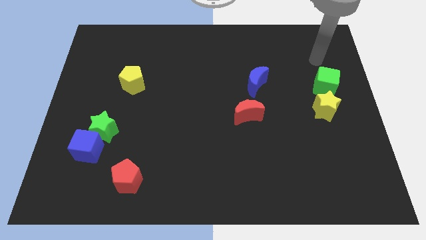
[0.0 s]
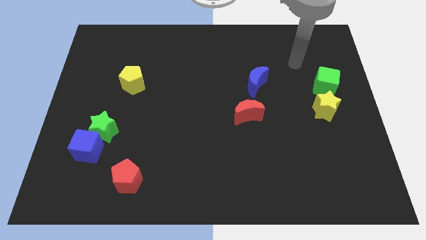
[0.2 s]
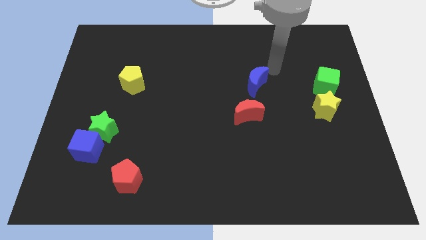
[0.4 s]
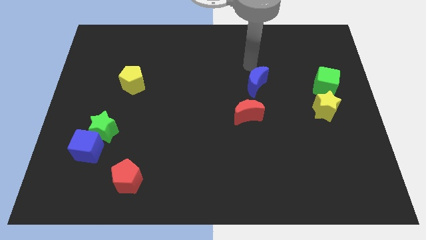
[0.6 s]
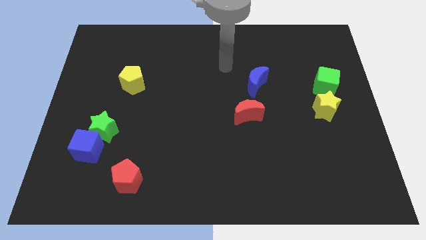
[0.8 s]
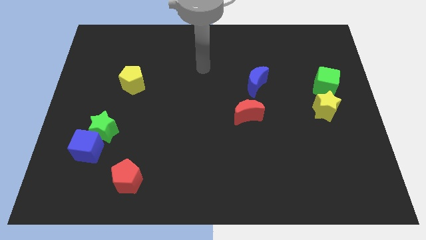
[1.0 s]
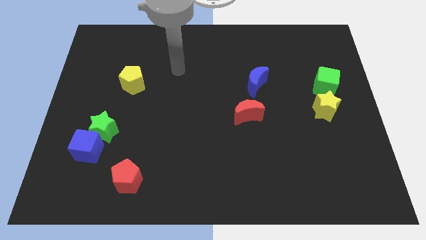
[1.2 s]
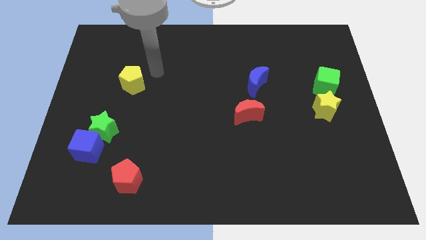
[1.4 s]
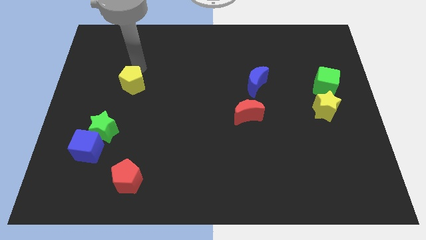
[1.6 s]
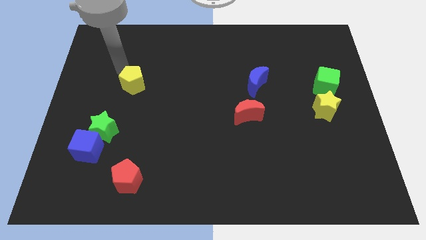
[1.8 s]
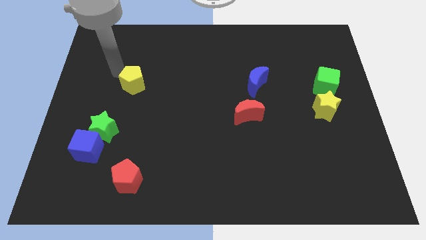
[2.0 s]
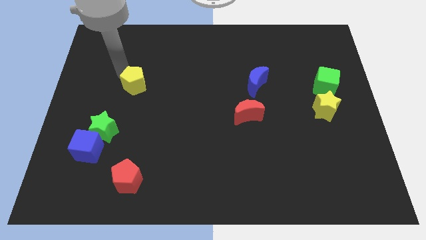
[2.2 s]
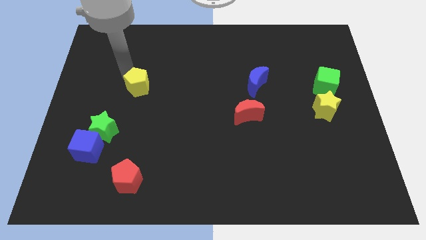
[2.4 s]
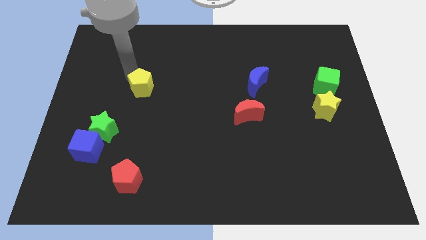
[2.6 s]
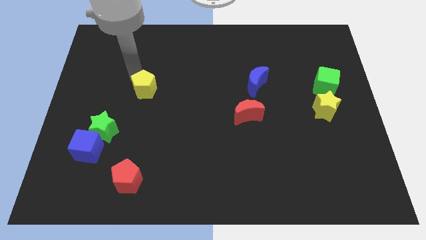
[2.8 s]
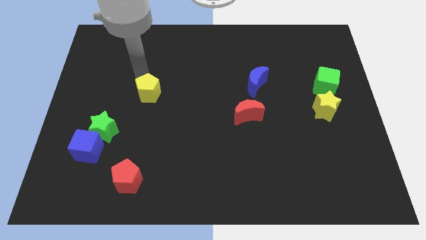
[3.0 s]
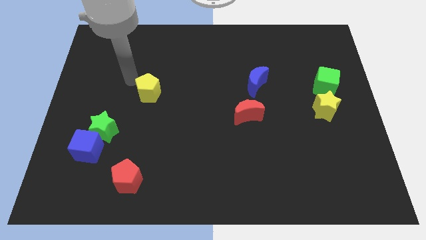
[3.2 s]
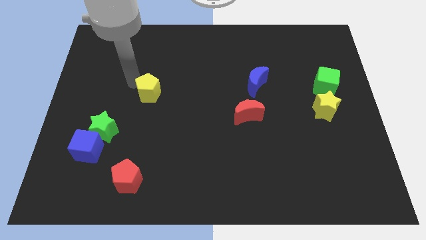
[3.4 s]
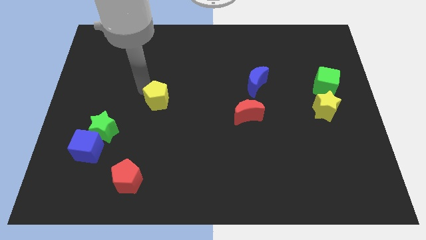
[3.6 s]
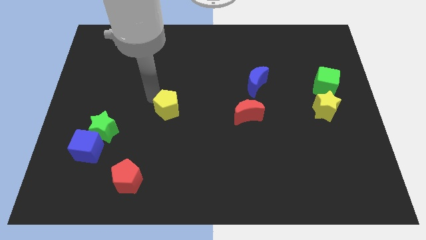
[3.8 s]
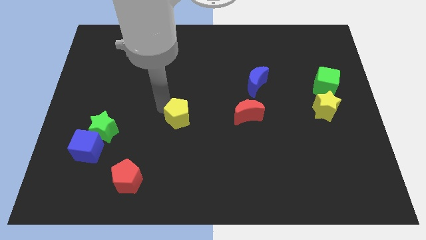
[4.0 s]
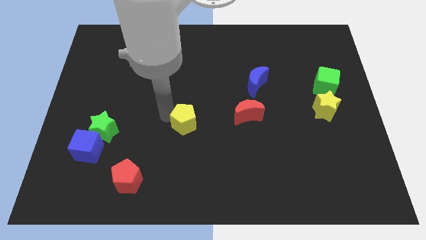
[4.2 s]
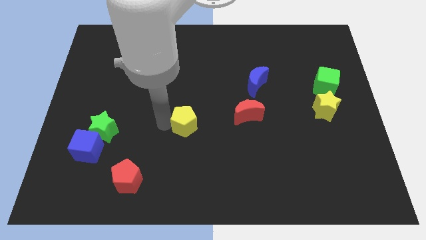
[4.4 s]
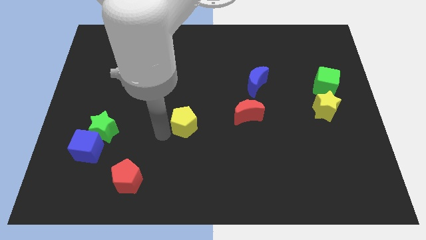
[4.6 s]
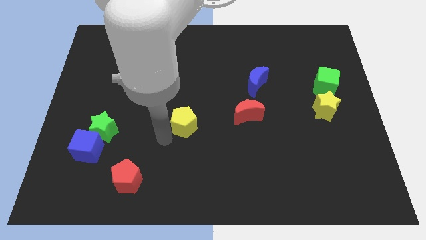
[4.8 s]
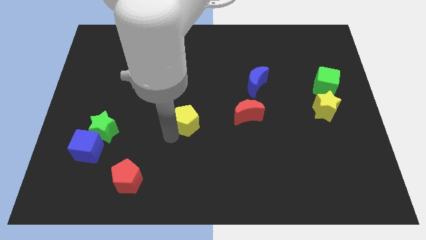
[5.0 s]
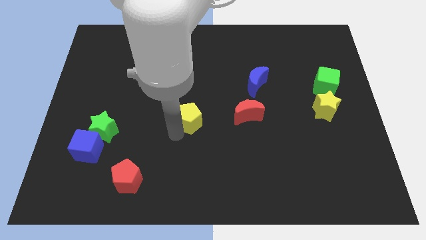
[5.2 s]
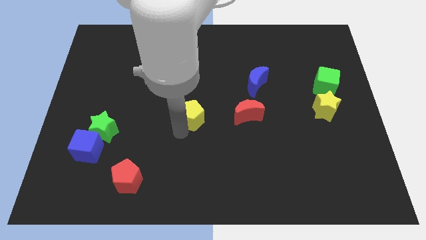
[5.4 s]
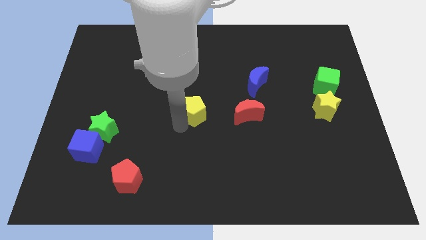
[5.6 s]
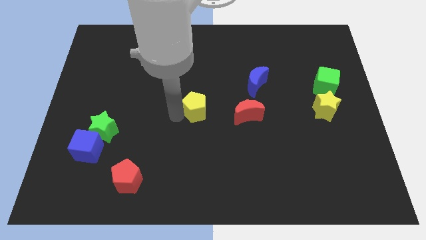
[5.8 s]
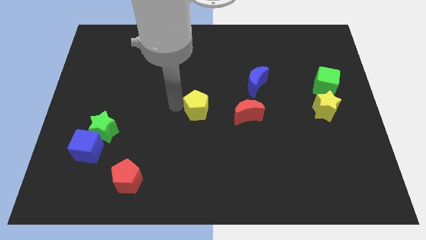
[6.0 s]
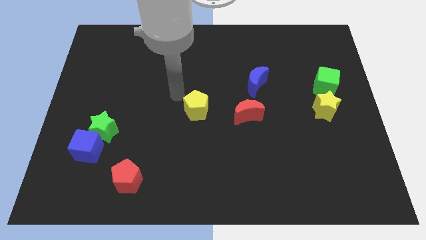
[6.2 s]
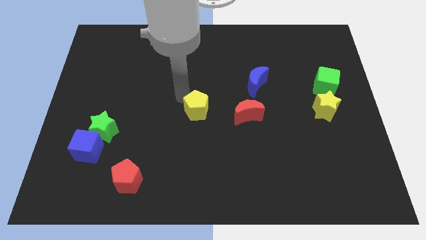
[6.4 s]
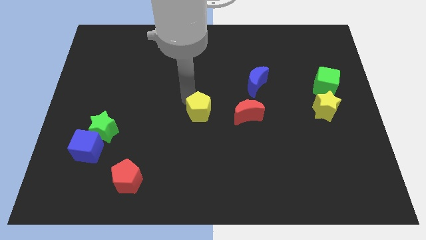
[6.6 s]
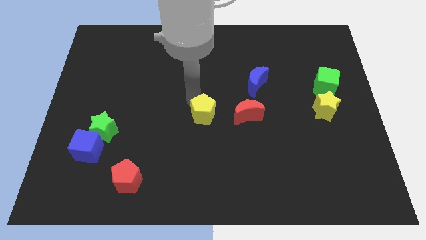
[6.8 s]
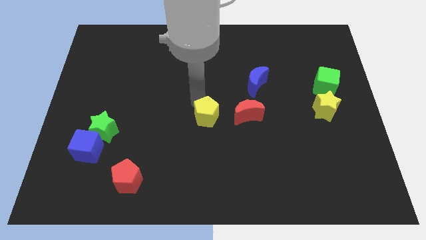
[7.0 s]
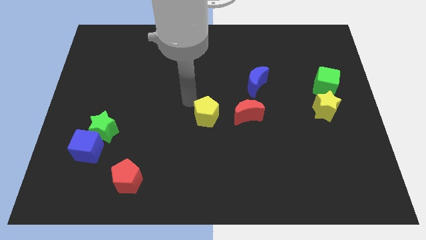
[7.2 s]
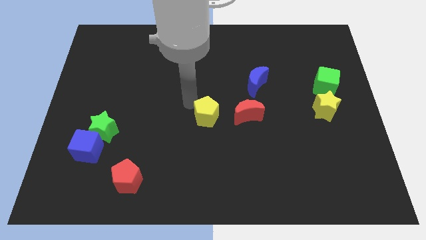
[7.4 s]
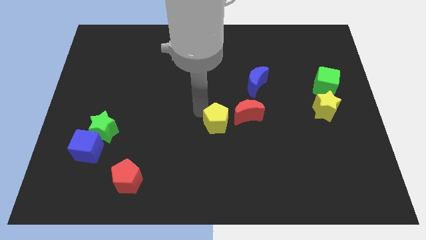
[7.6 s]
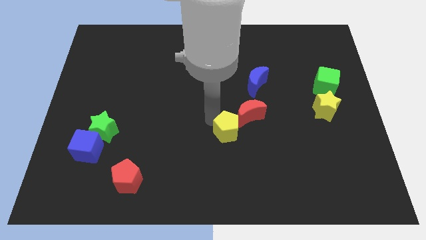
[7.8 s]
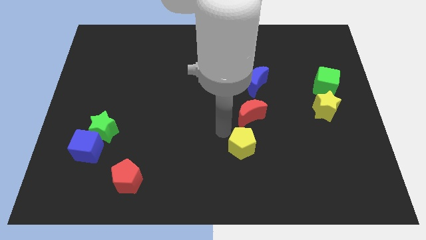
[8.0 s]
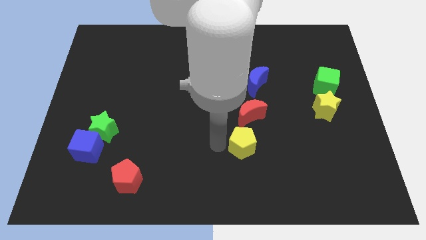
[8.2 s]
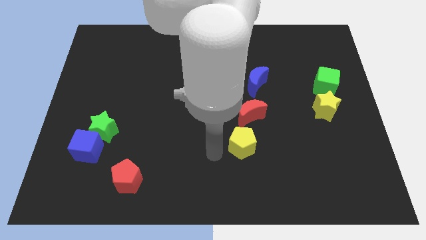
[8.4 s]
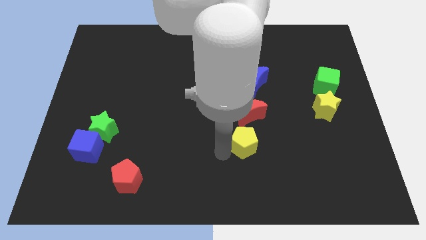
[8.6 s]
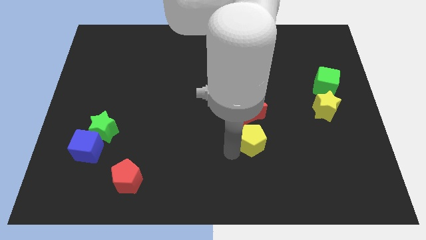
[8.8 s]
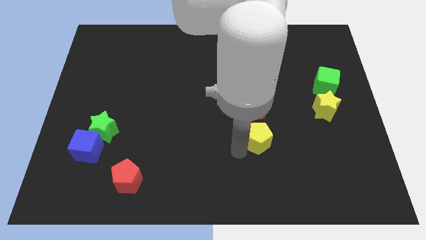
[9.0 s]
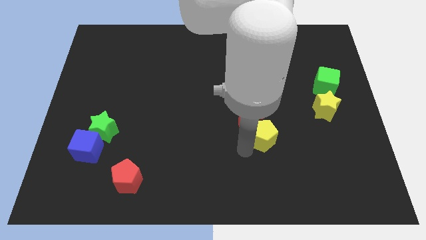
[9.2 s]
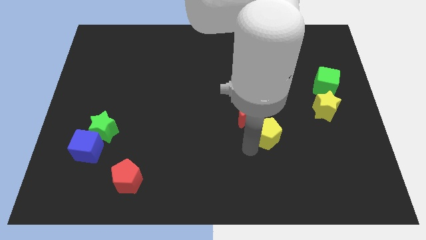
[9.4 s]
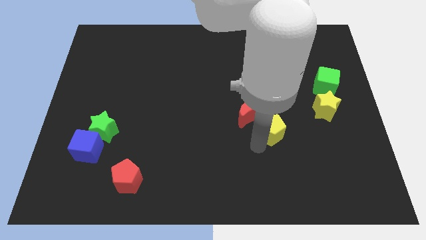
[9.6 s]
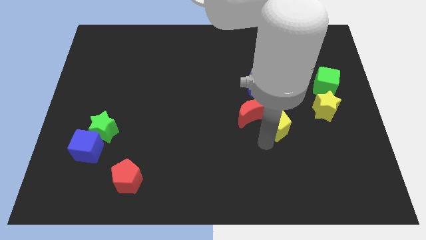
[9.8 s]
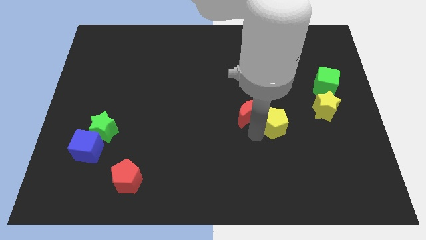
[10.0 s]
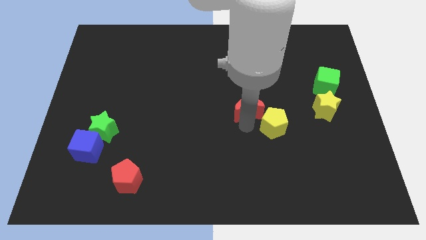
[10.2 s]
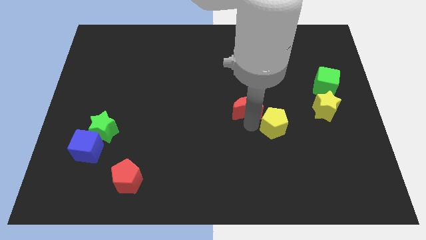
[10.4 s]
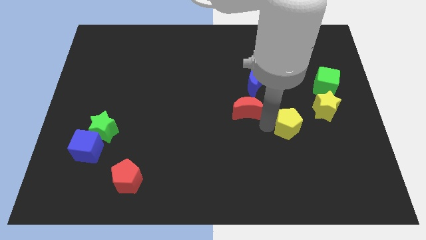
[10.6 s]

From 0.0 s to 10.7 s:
put the yellow pentagon to the bottom left of the yellow star

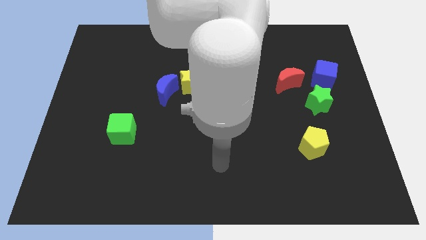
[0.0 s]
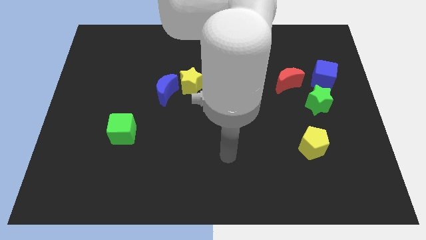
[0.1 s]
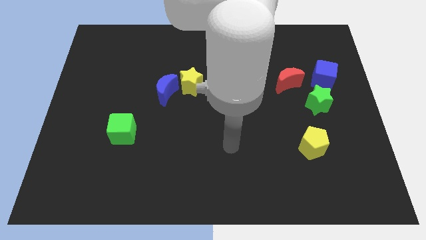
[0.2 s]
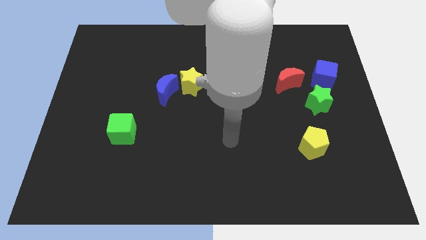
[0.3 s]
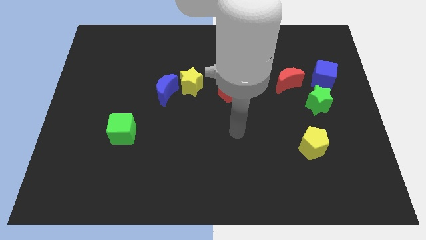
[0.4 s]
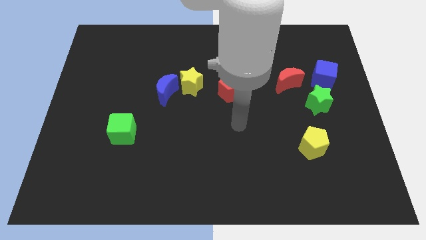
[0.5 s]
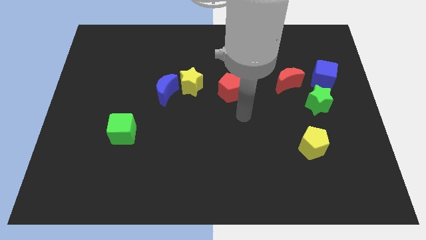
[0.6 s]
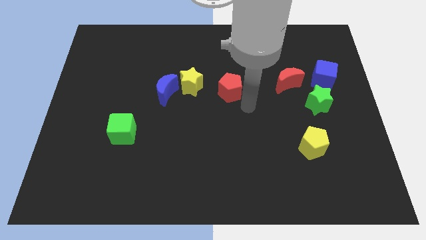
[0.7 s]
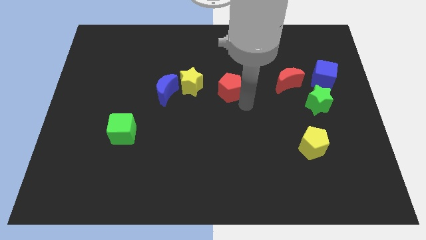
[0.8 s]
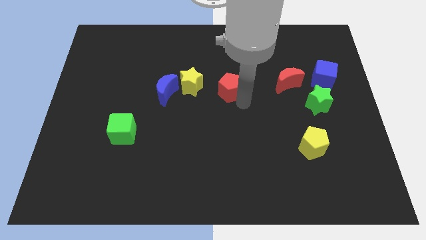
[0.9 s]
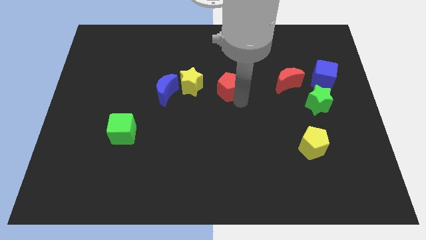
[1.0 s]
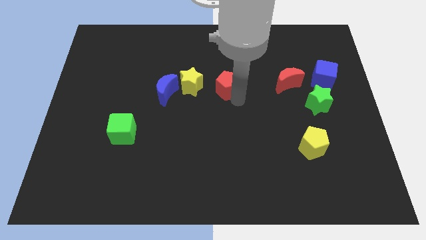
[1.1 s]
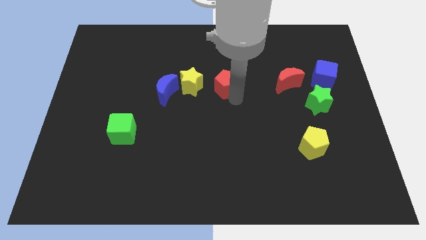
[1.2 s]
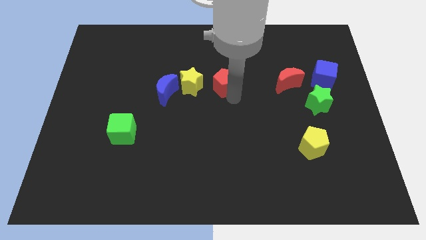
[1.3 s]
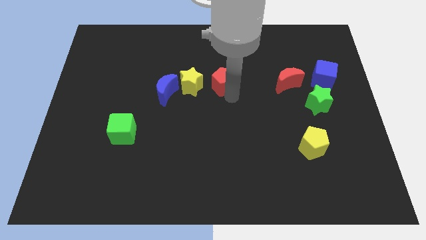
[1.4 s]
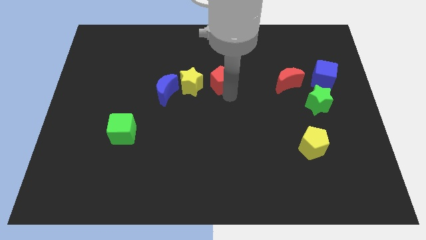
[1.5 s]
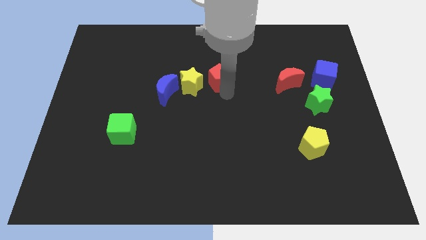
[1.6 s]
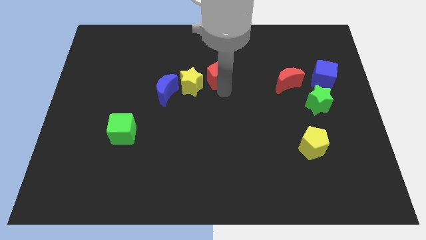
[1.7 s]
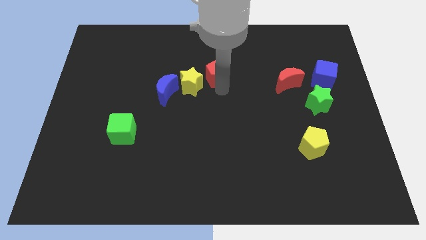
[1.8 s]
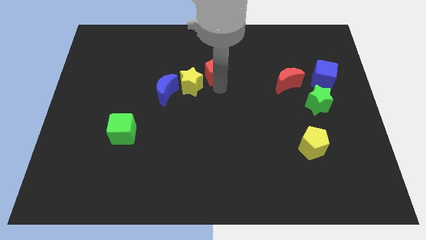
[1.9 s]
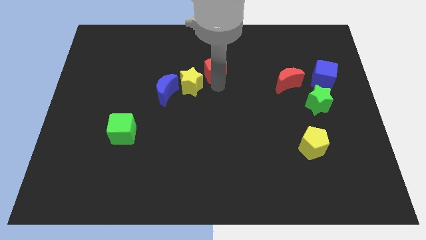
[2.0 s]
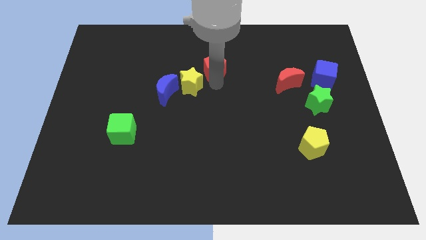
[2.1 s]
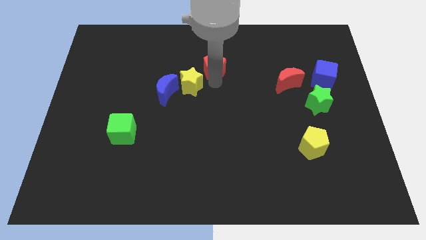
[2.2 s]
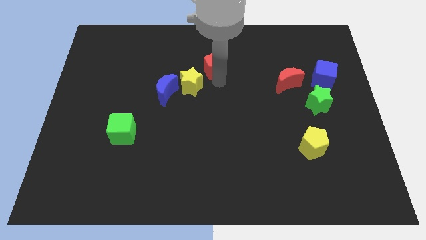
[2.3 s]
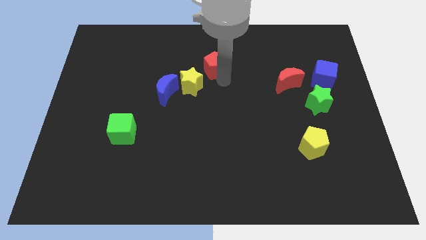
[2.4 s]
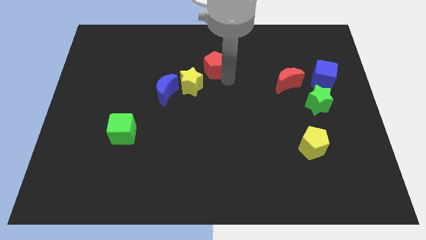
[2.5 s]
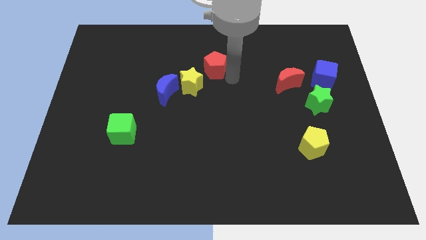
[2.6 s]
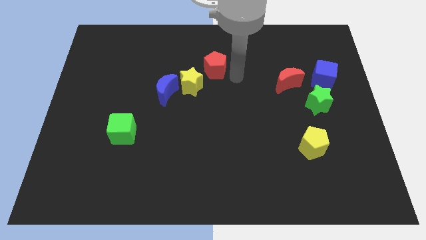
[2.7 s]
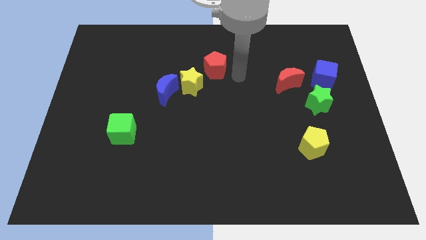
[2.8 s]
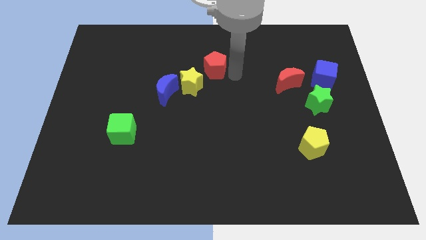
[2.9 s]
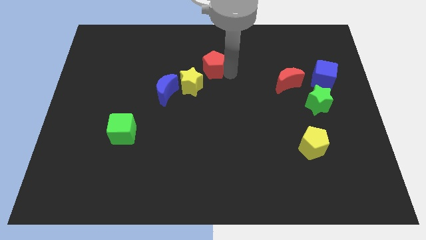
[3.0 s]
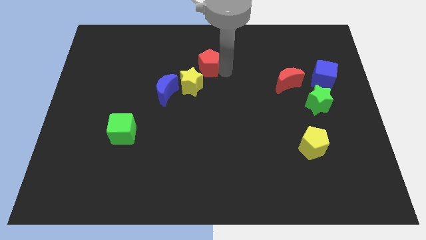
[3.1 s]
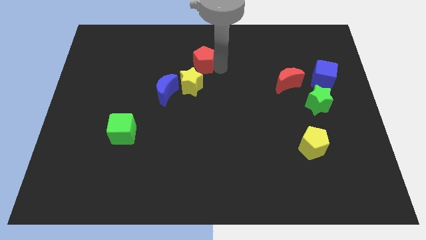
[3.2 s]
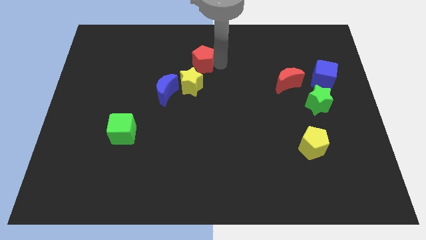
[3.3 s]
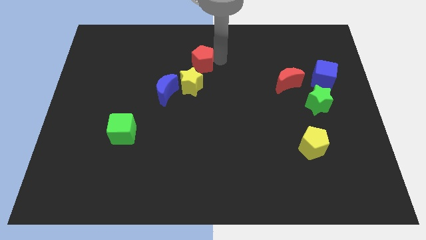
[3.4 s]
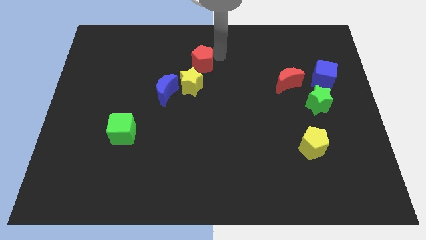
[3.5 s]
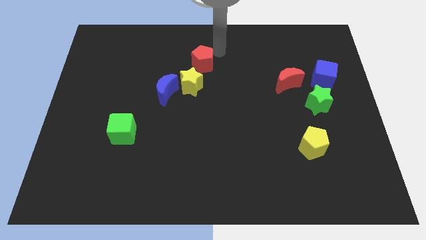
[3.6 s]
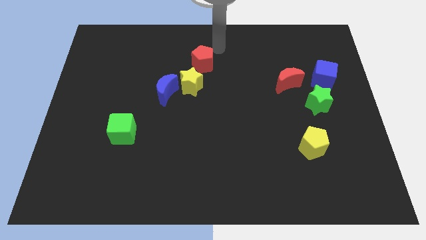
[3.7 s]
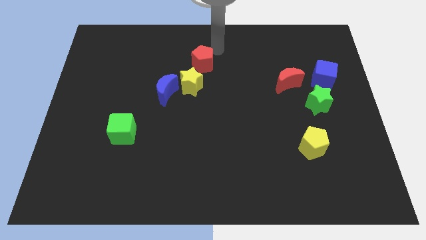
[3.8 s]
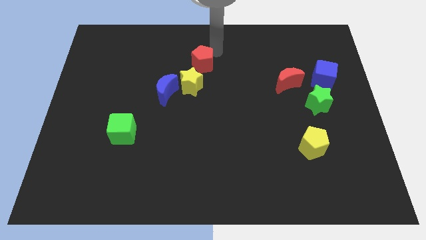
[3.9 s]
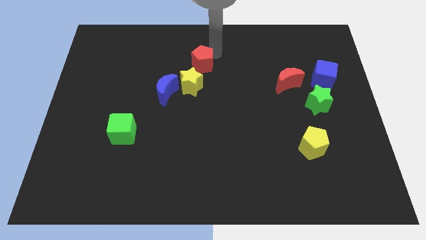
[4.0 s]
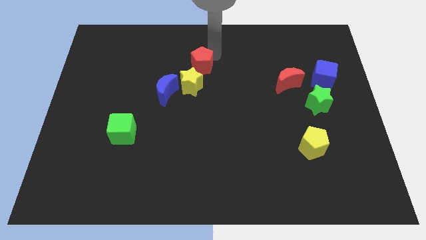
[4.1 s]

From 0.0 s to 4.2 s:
push the red pentagon diagonally up and to the right of the blue moon
